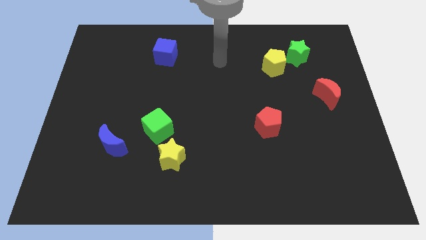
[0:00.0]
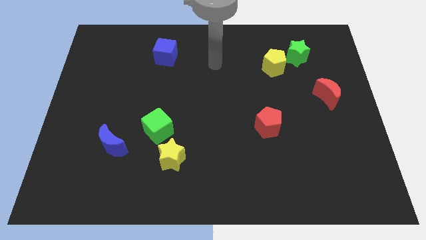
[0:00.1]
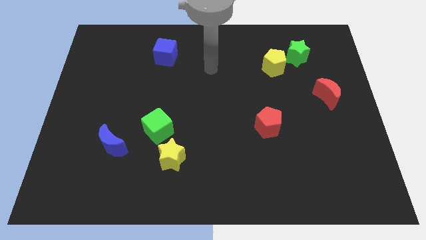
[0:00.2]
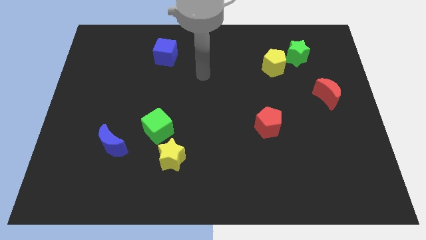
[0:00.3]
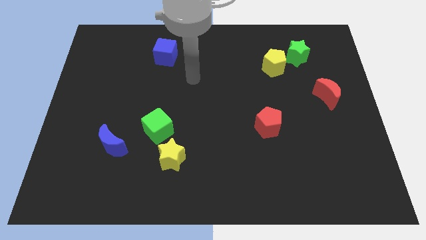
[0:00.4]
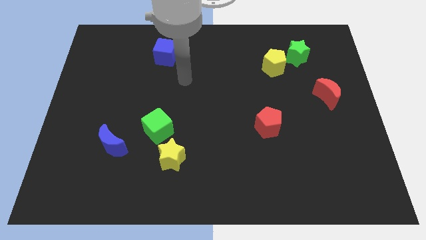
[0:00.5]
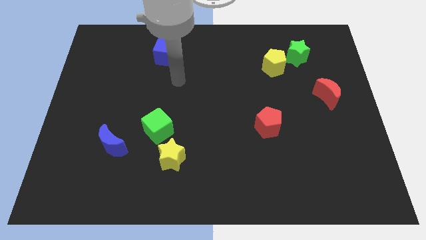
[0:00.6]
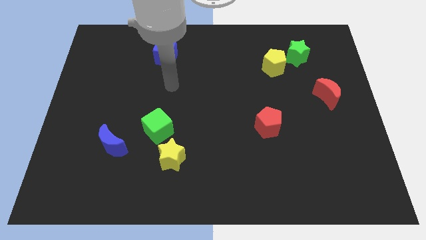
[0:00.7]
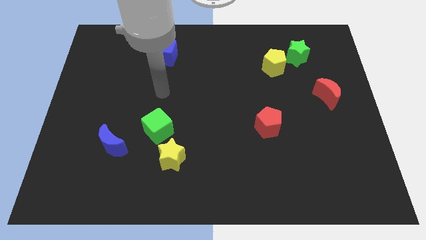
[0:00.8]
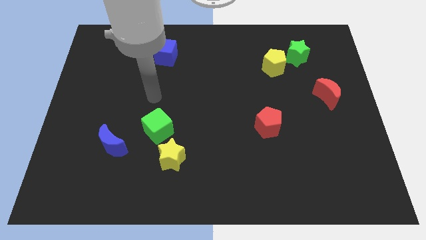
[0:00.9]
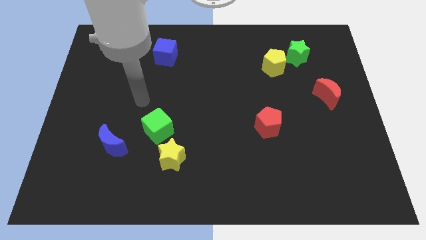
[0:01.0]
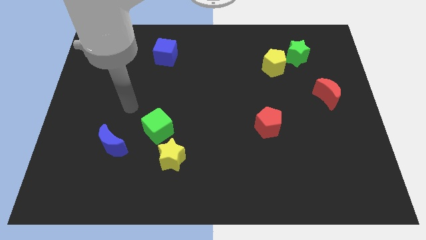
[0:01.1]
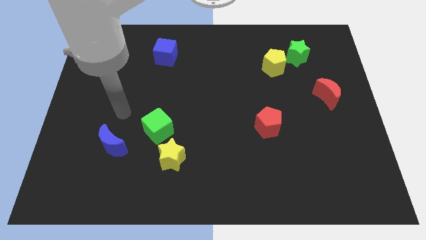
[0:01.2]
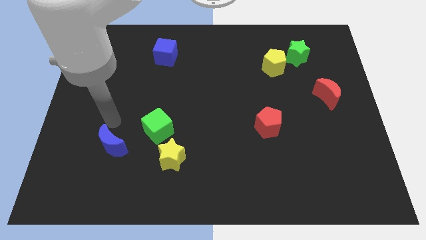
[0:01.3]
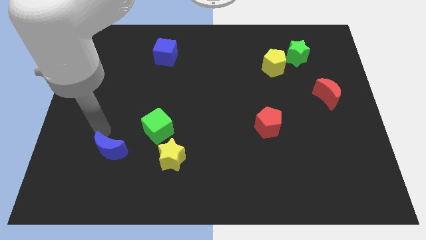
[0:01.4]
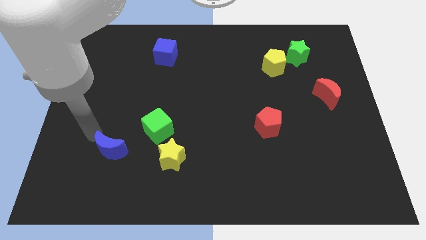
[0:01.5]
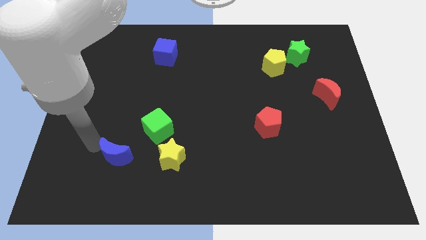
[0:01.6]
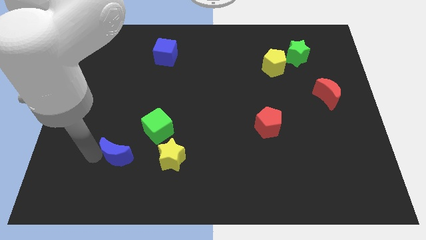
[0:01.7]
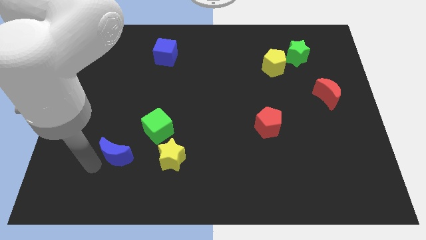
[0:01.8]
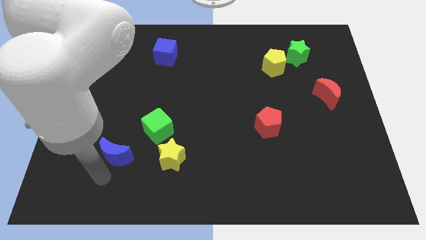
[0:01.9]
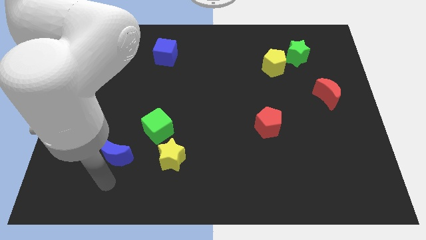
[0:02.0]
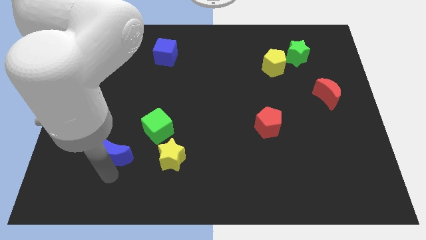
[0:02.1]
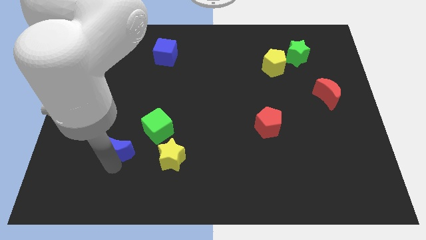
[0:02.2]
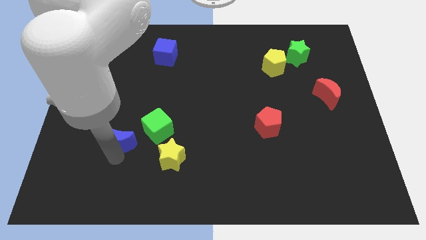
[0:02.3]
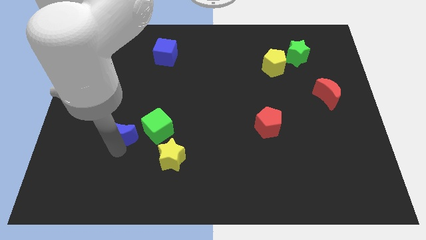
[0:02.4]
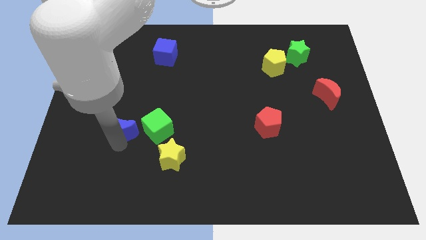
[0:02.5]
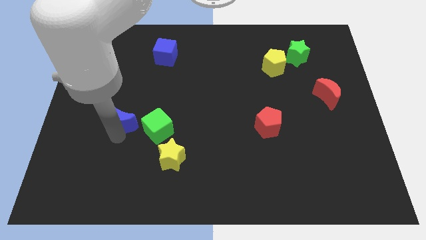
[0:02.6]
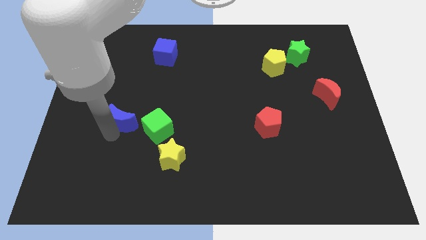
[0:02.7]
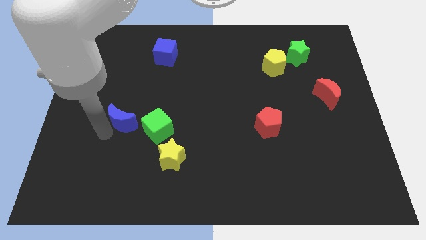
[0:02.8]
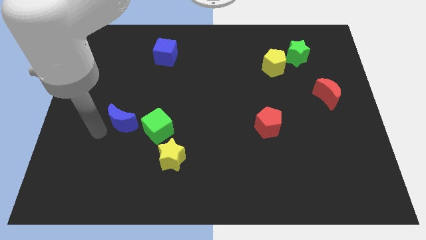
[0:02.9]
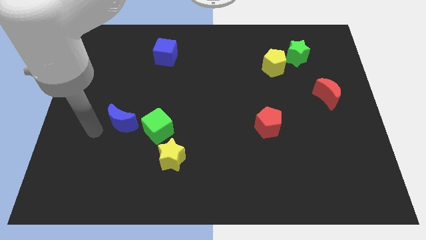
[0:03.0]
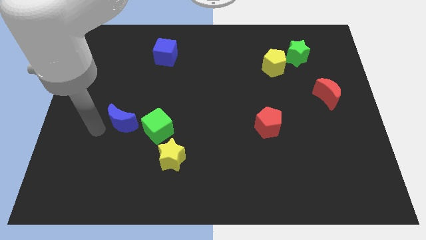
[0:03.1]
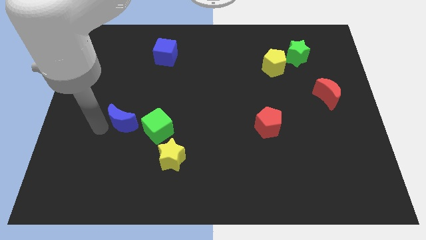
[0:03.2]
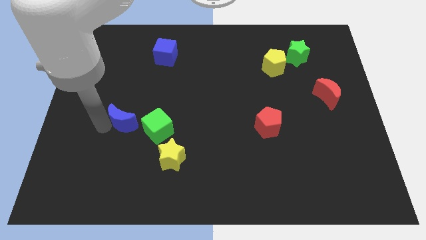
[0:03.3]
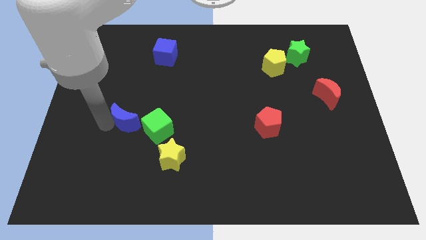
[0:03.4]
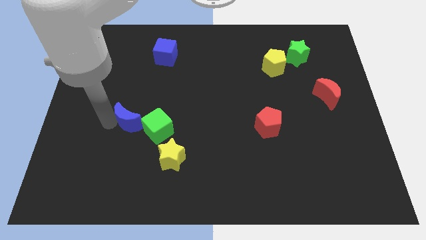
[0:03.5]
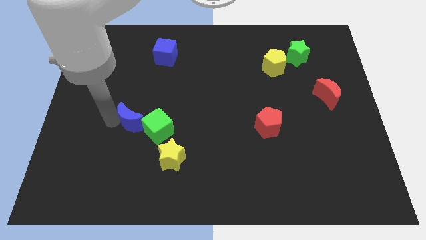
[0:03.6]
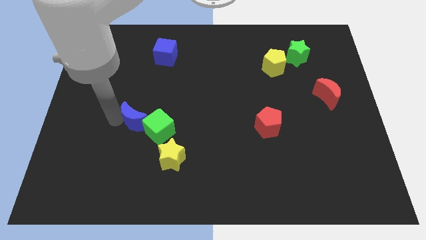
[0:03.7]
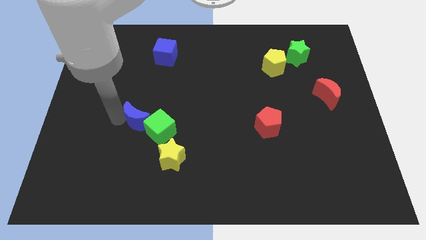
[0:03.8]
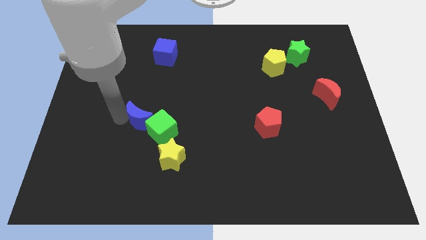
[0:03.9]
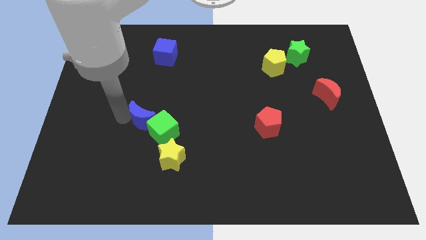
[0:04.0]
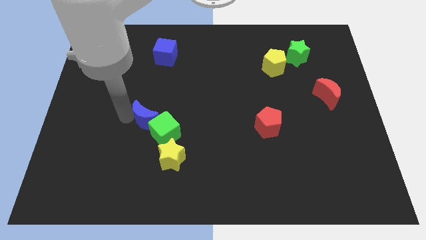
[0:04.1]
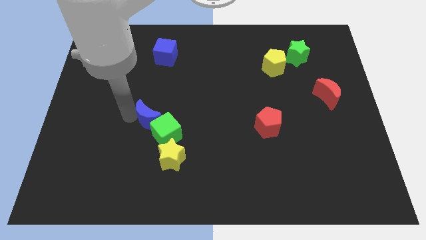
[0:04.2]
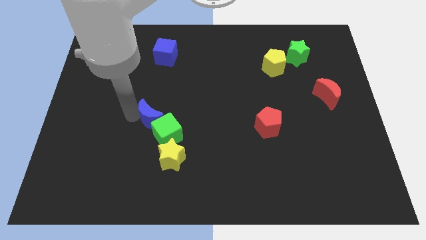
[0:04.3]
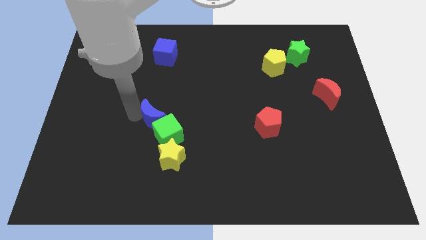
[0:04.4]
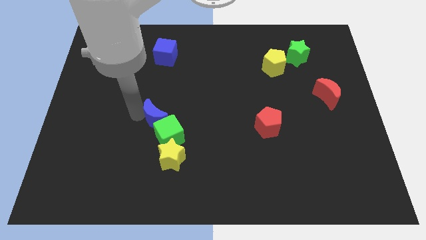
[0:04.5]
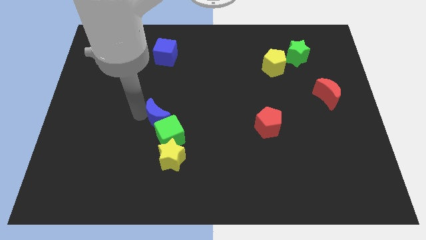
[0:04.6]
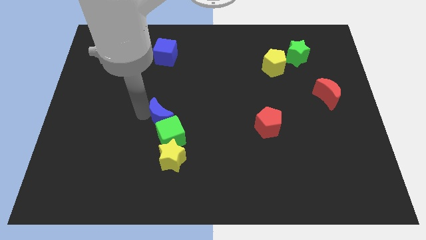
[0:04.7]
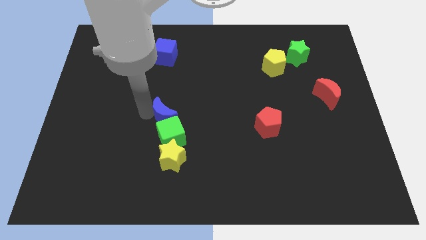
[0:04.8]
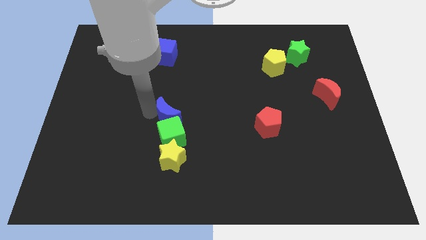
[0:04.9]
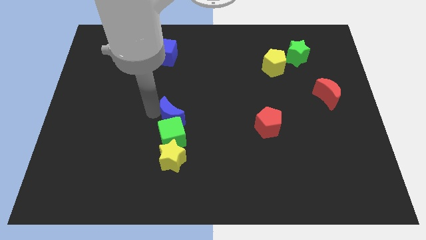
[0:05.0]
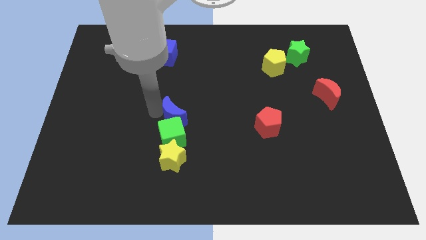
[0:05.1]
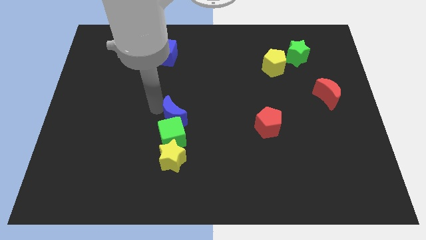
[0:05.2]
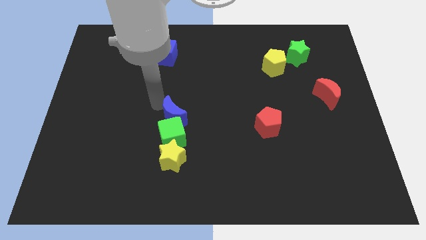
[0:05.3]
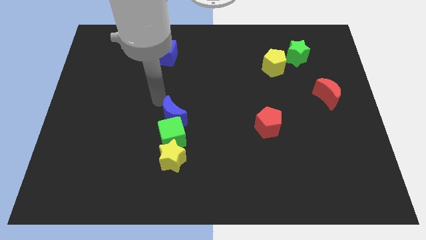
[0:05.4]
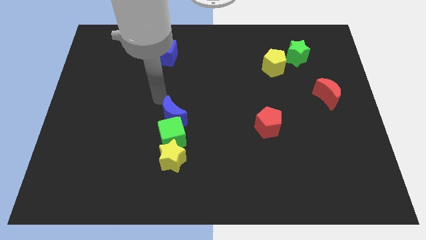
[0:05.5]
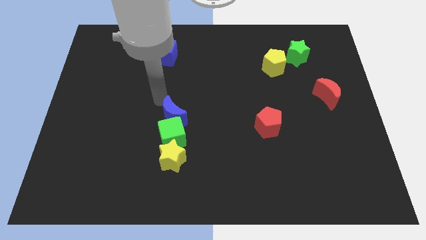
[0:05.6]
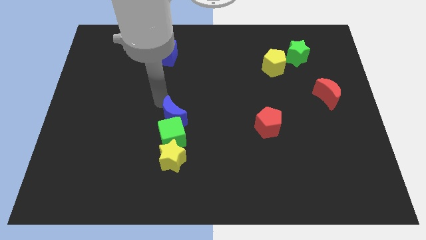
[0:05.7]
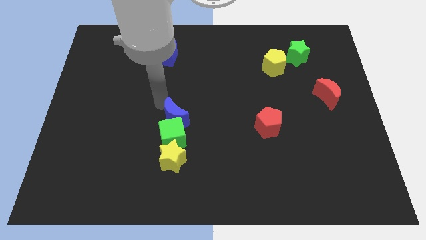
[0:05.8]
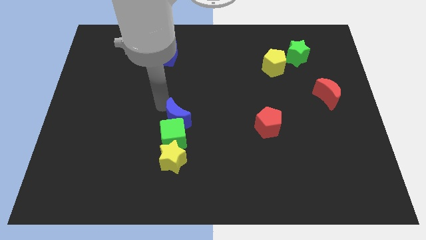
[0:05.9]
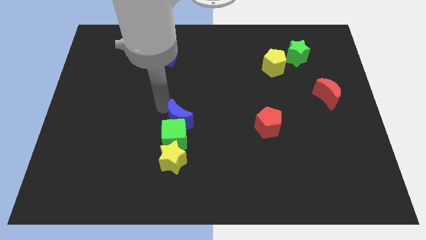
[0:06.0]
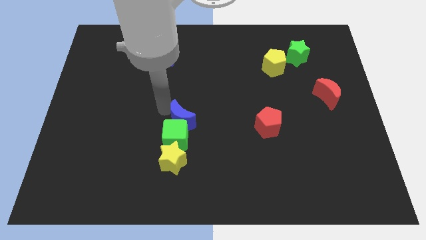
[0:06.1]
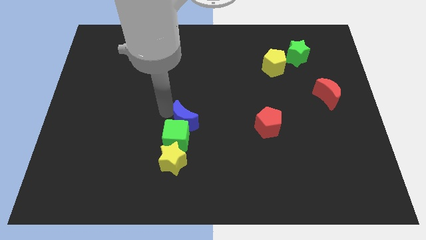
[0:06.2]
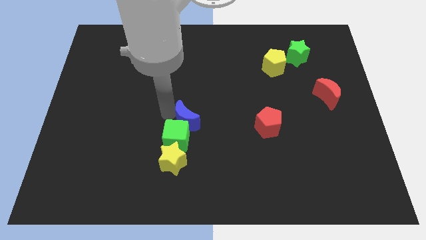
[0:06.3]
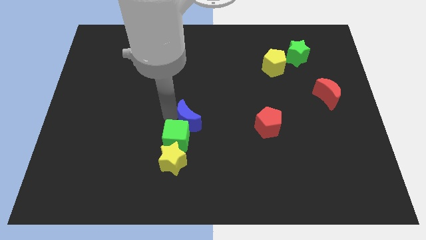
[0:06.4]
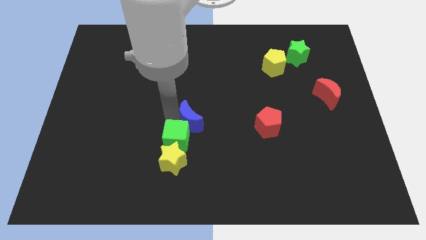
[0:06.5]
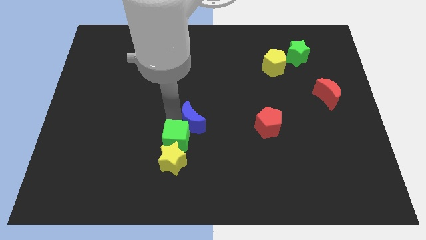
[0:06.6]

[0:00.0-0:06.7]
put the blue moon to the top right of the yellow star

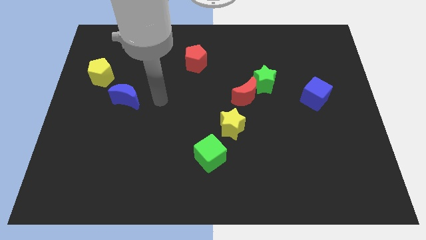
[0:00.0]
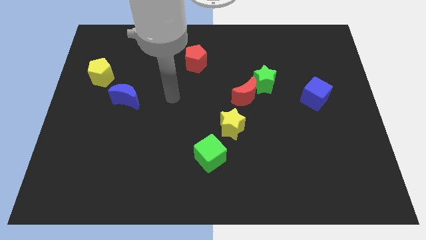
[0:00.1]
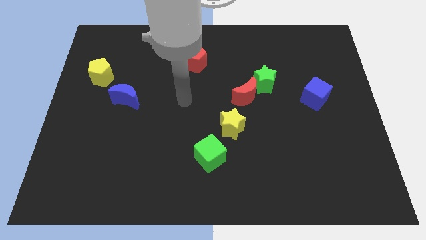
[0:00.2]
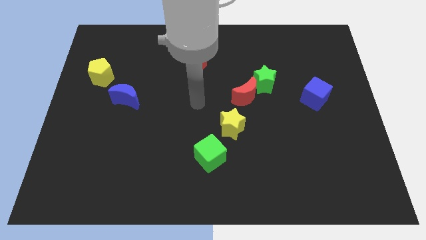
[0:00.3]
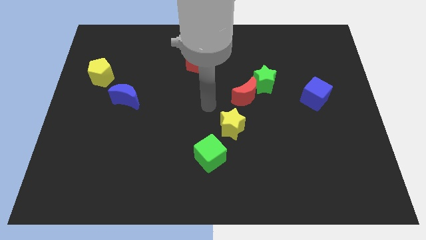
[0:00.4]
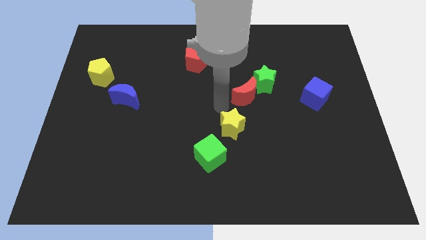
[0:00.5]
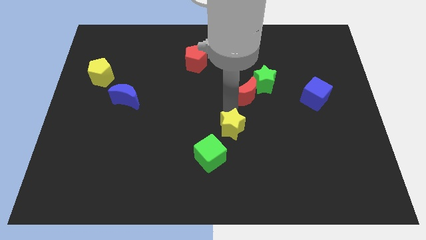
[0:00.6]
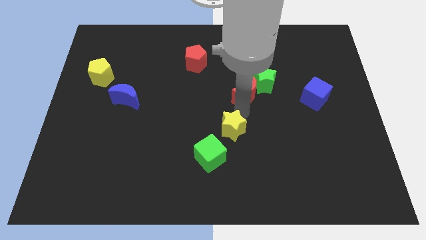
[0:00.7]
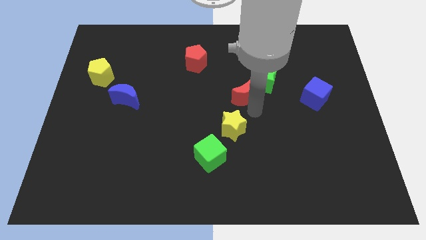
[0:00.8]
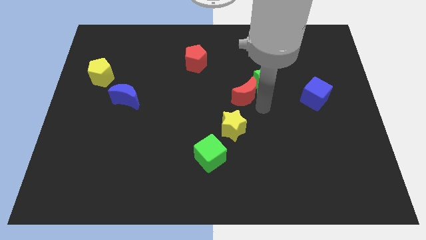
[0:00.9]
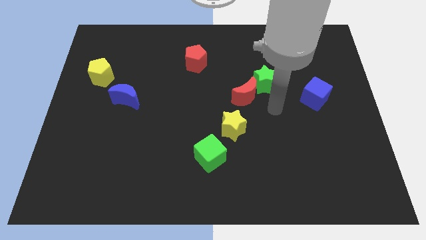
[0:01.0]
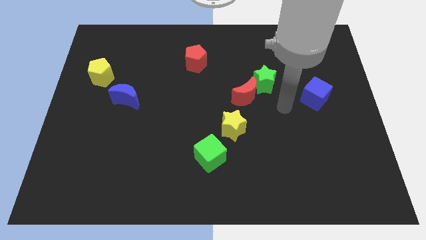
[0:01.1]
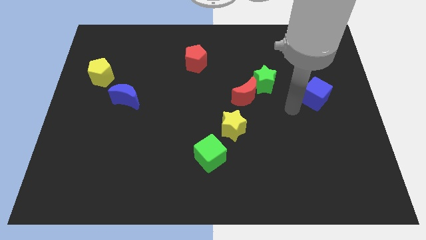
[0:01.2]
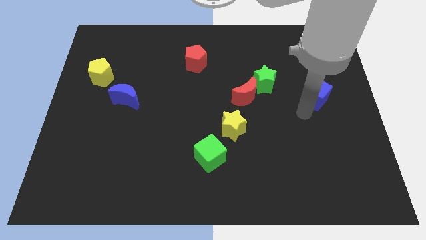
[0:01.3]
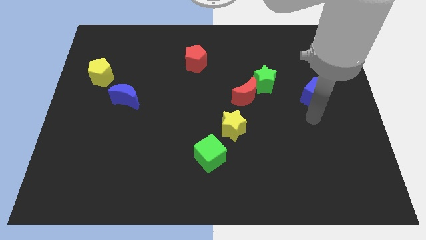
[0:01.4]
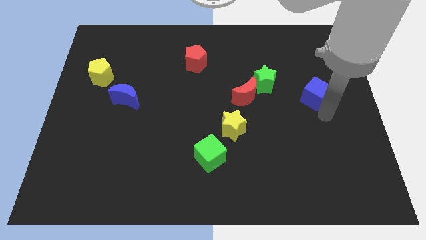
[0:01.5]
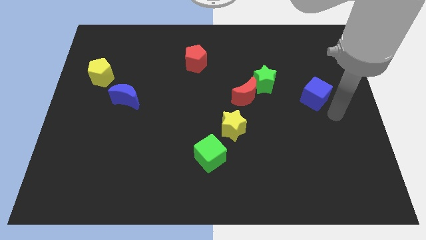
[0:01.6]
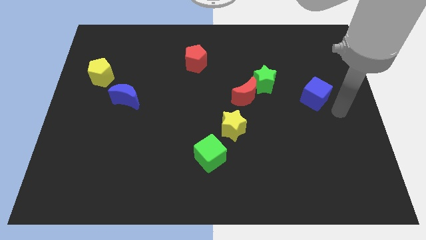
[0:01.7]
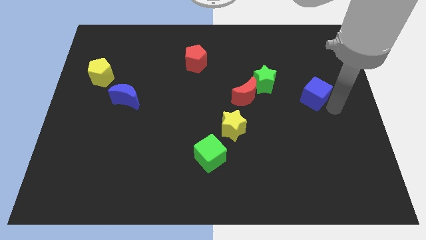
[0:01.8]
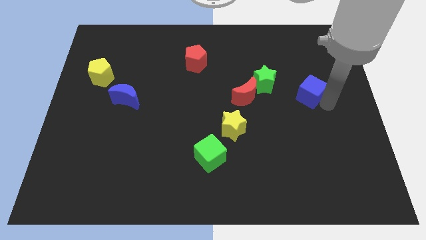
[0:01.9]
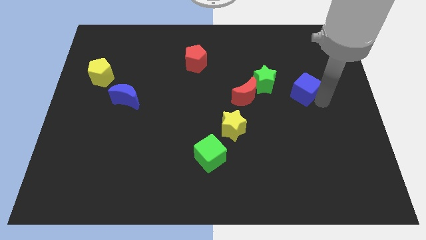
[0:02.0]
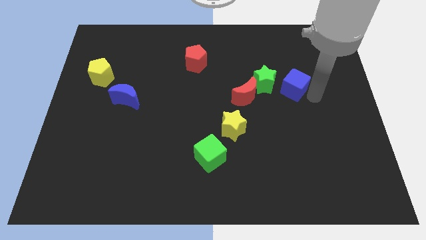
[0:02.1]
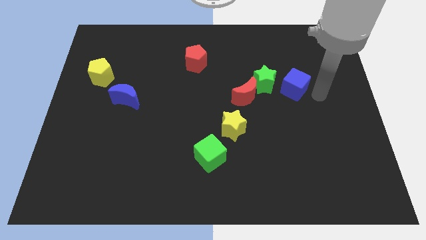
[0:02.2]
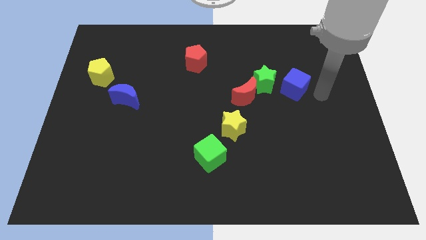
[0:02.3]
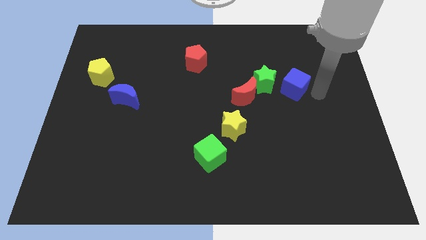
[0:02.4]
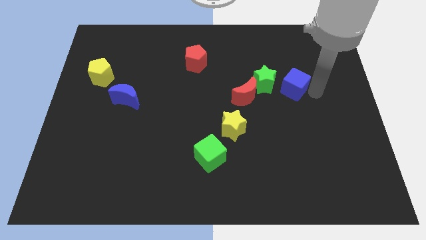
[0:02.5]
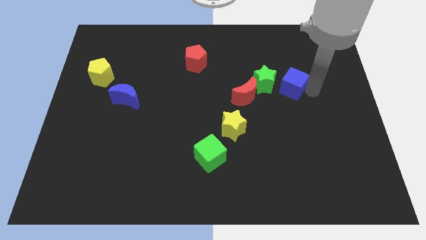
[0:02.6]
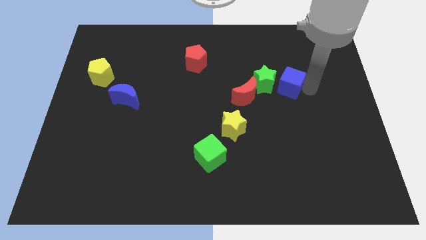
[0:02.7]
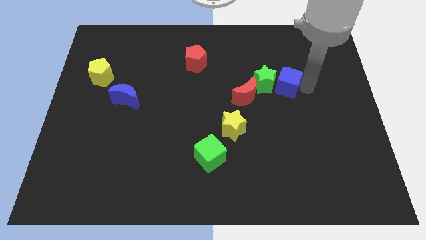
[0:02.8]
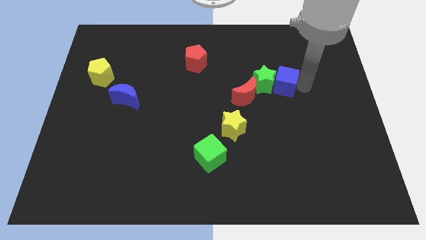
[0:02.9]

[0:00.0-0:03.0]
move the blue cube to the top right of the red moon
